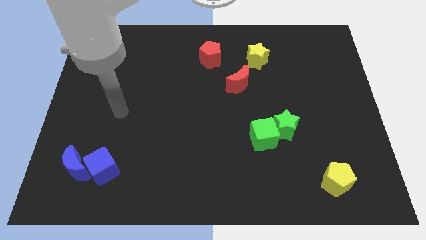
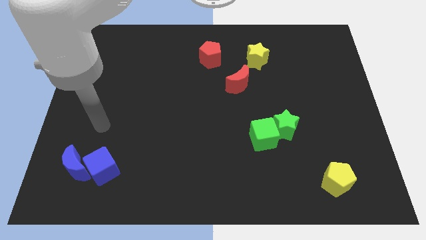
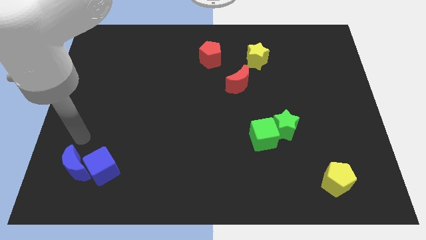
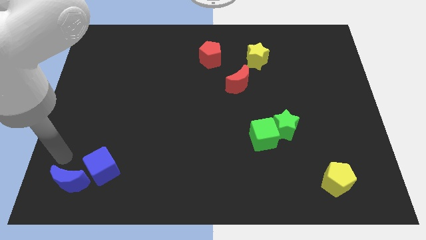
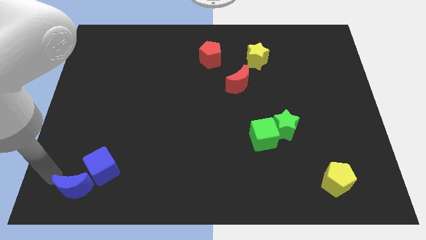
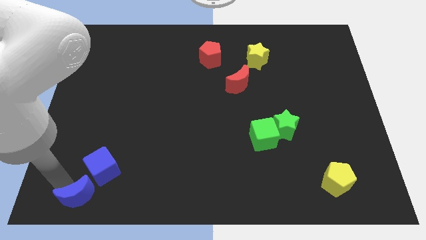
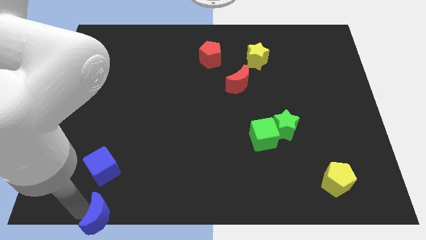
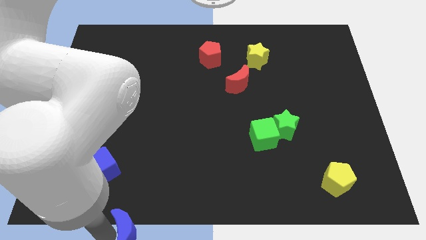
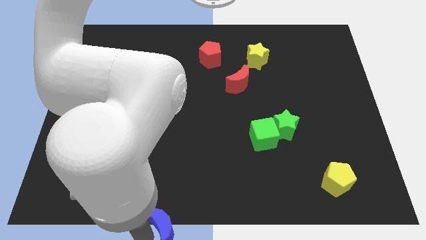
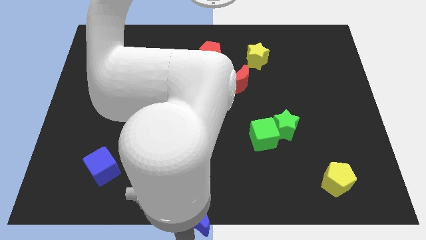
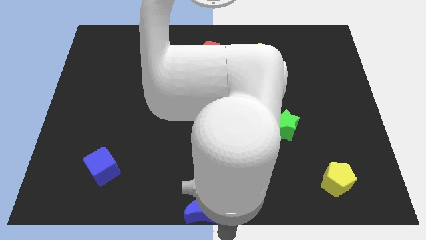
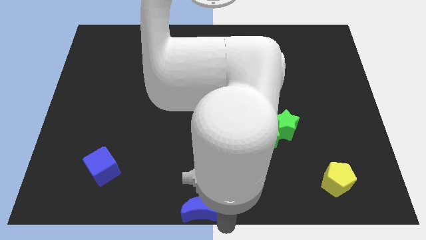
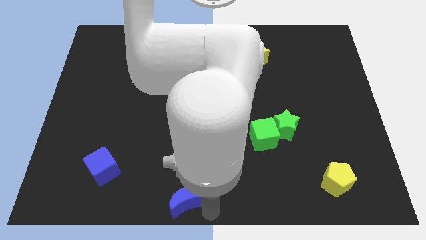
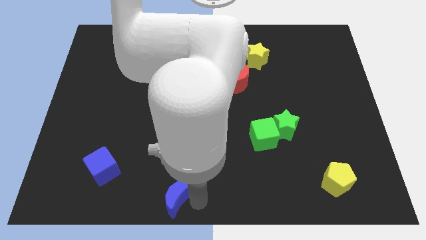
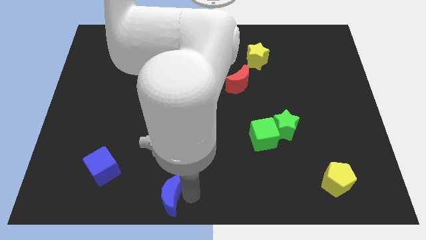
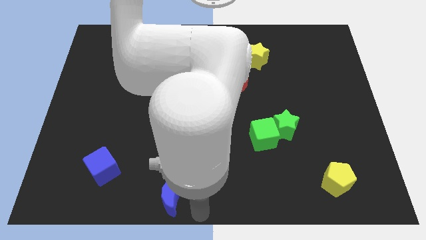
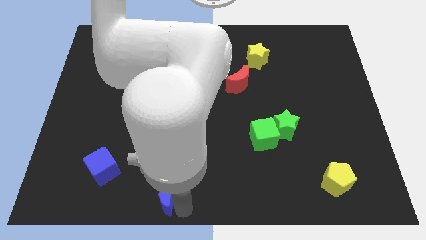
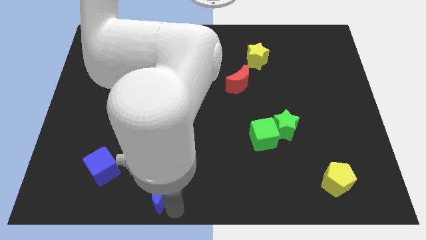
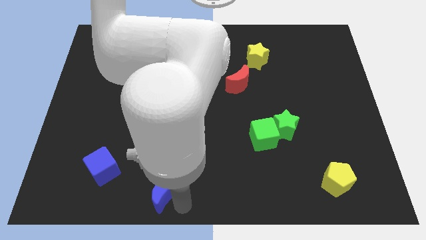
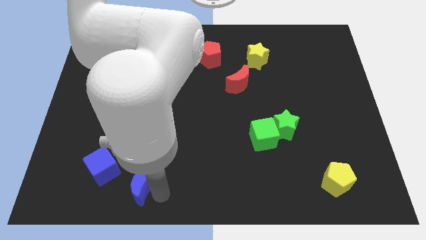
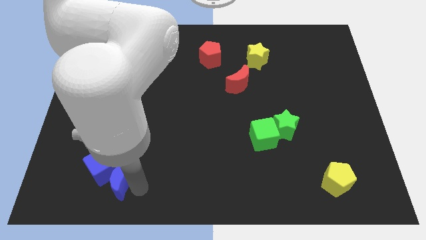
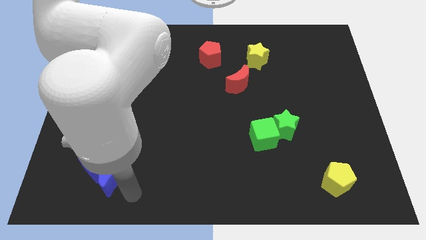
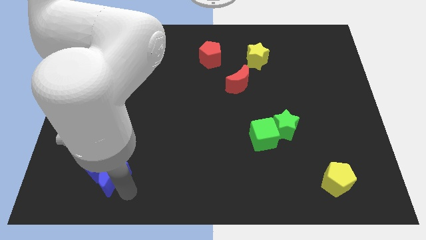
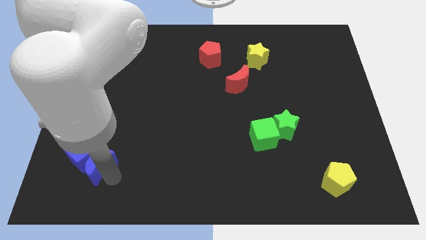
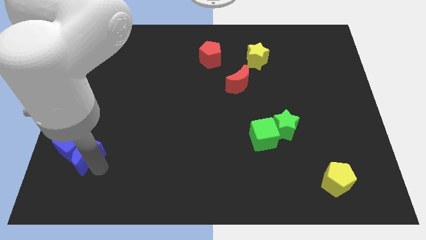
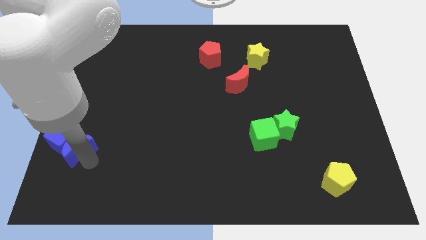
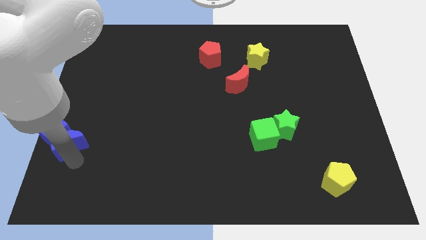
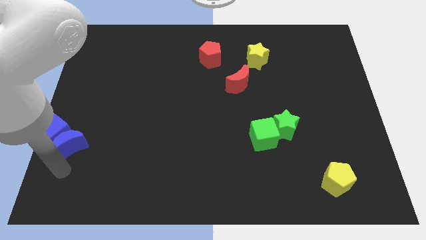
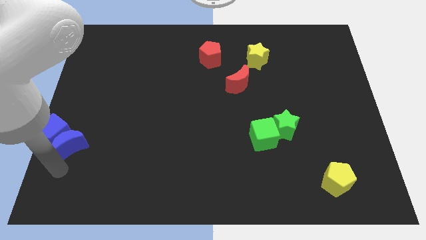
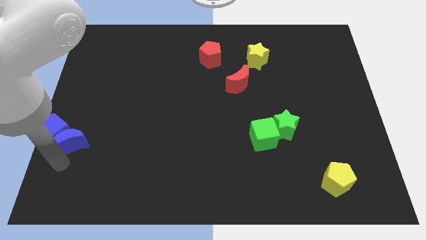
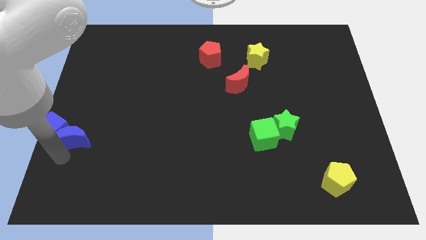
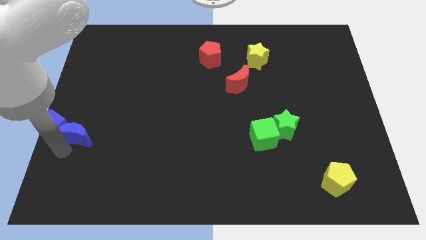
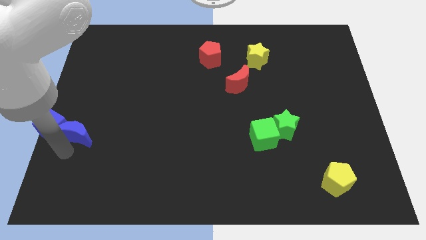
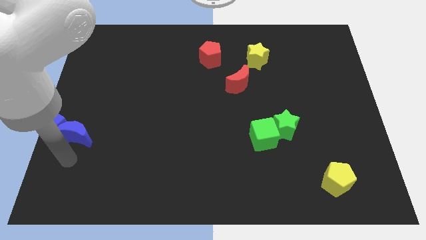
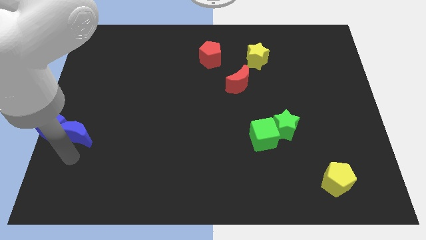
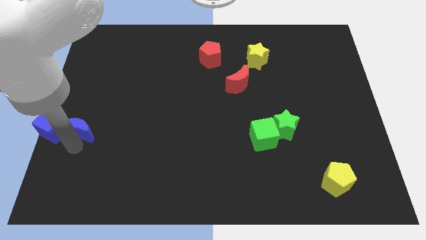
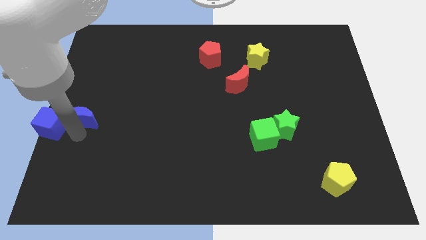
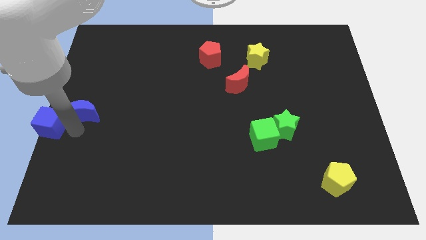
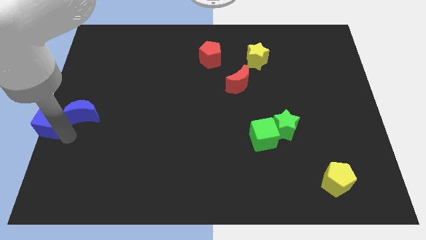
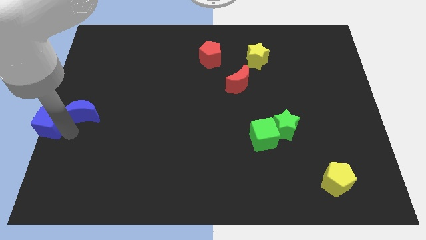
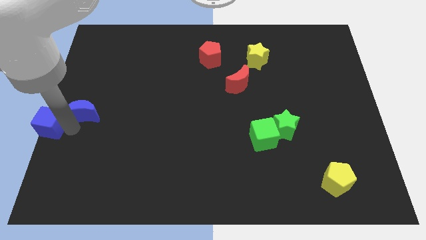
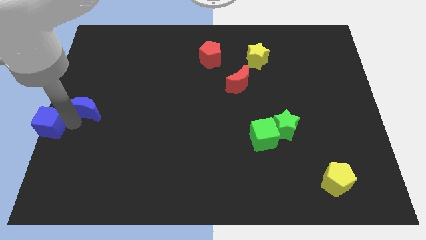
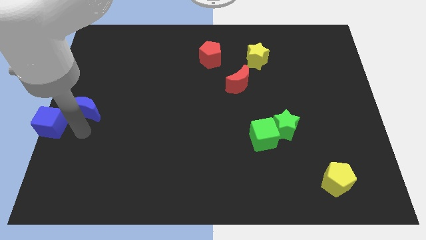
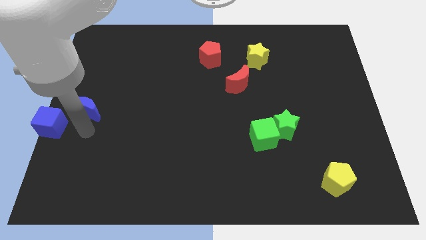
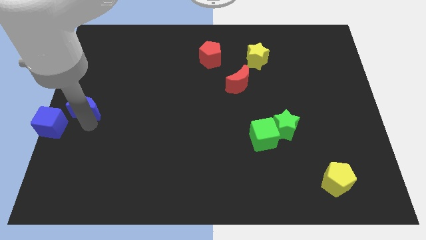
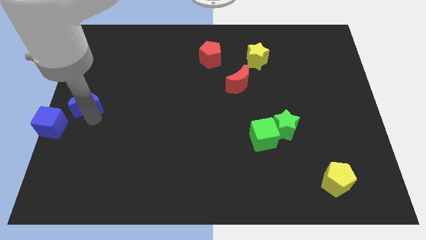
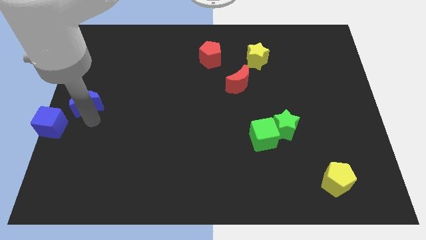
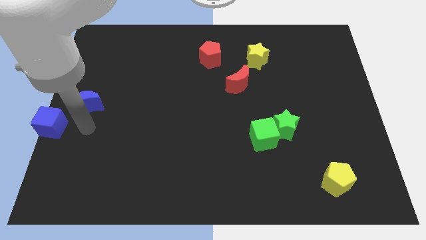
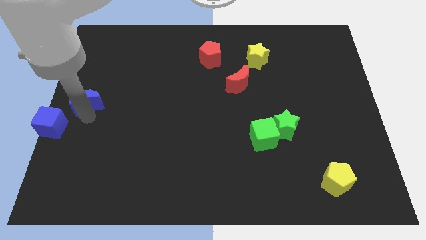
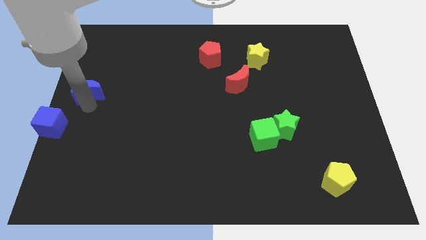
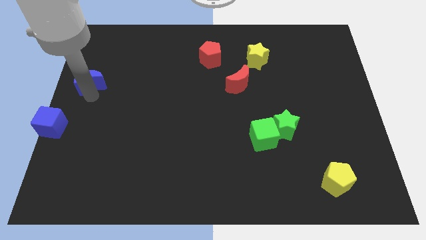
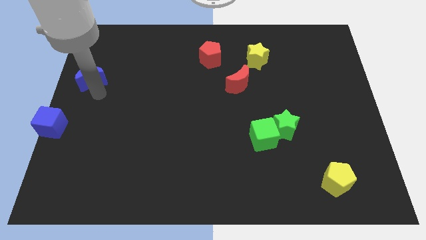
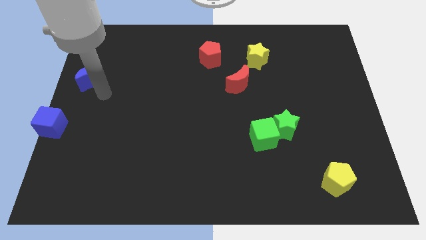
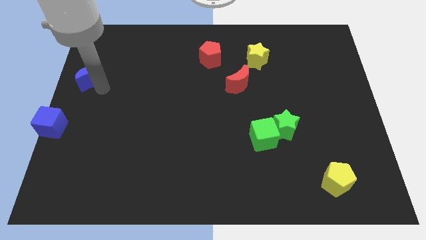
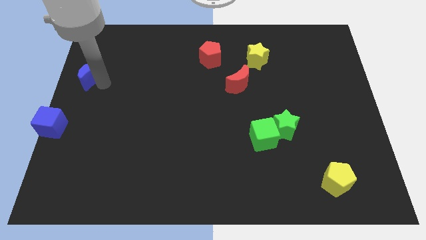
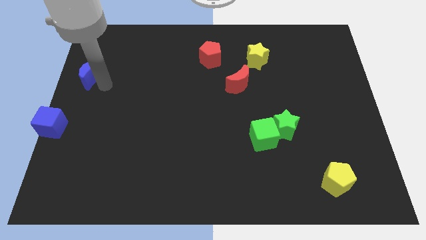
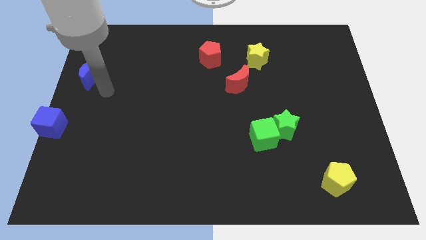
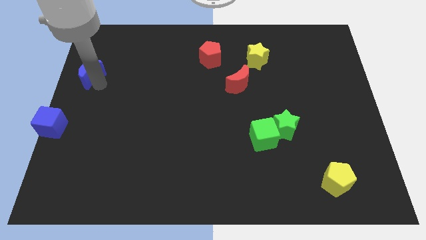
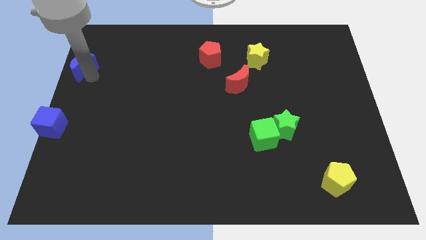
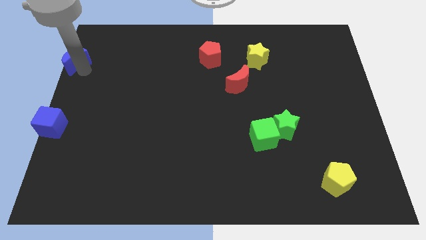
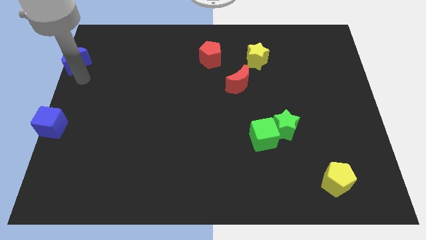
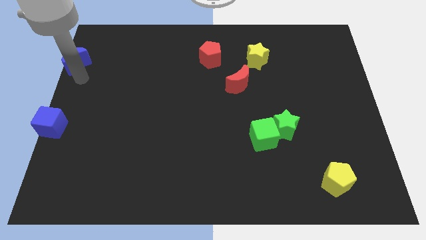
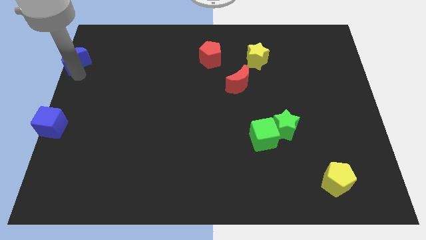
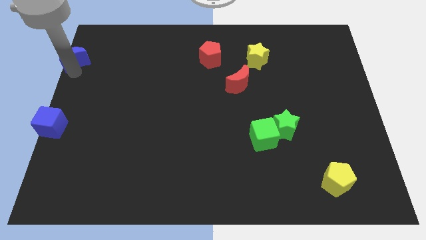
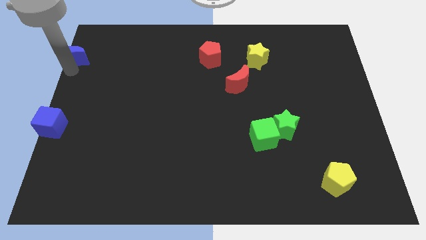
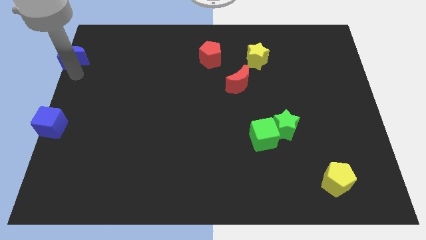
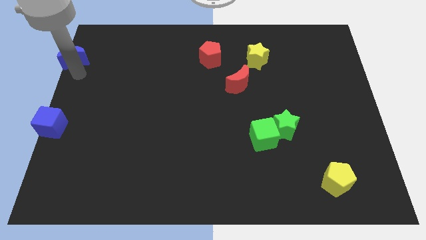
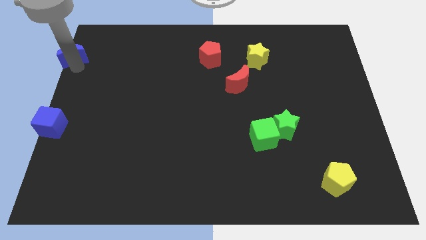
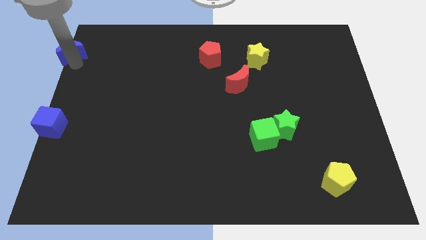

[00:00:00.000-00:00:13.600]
push the blue moon to the top left of the board
